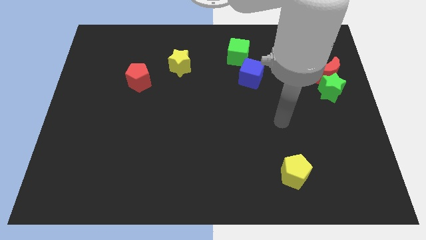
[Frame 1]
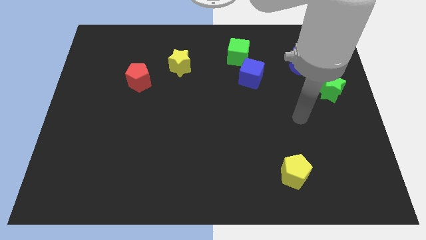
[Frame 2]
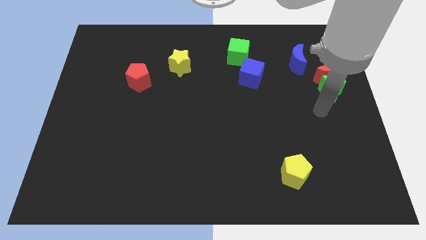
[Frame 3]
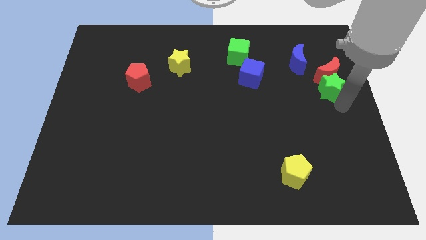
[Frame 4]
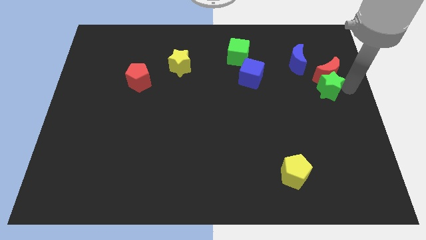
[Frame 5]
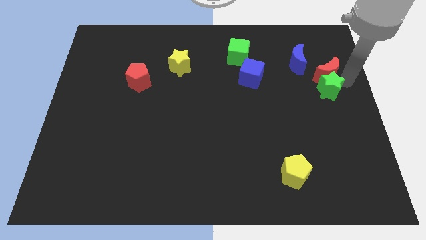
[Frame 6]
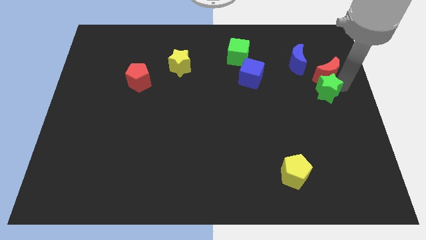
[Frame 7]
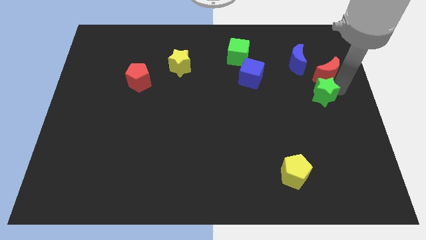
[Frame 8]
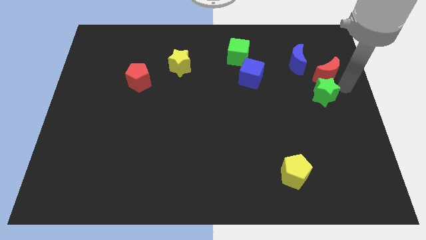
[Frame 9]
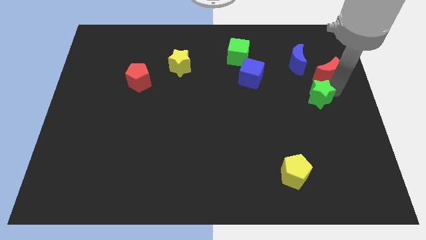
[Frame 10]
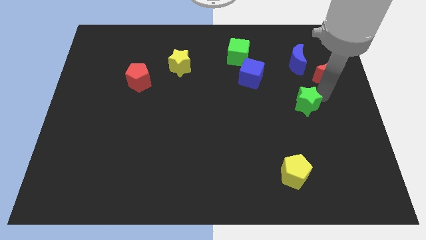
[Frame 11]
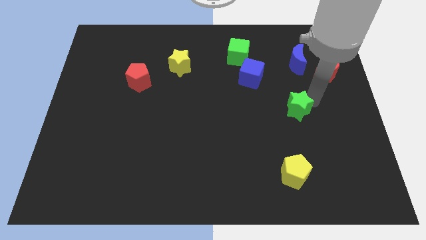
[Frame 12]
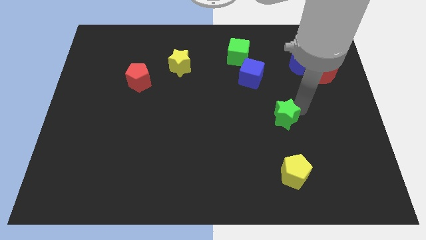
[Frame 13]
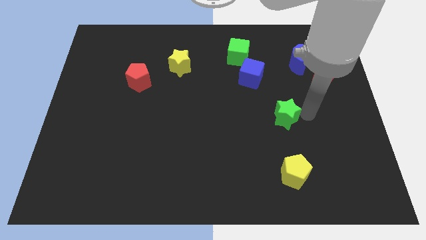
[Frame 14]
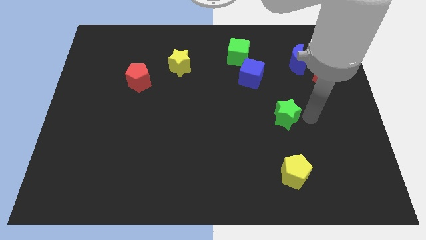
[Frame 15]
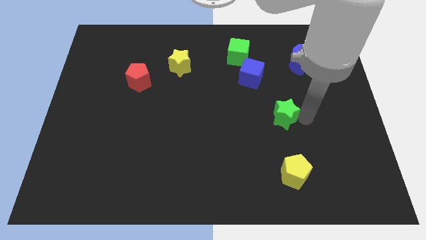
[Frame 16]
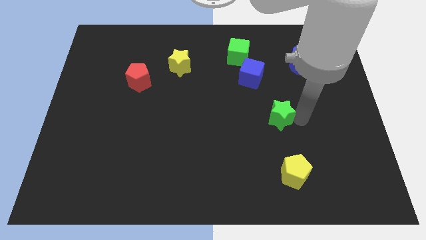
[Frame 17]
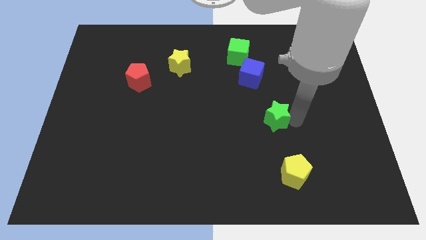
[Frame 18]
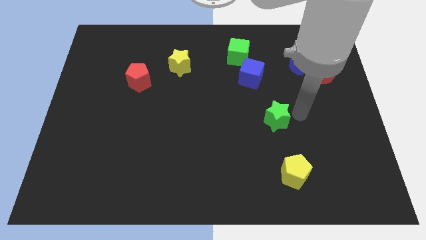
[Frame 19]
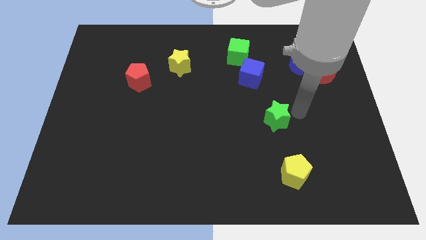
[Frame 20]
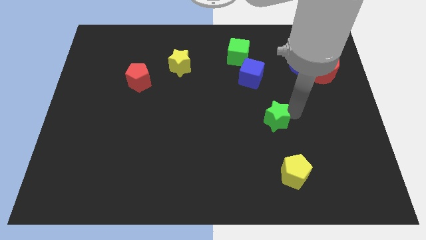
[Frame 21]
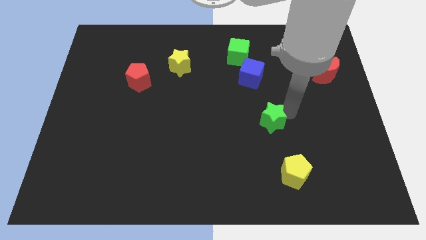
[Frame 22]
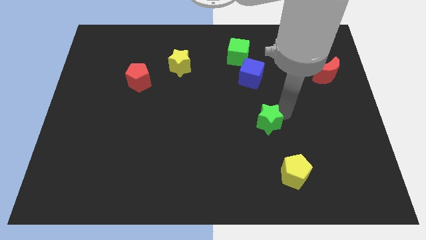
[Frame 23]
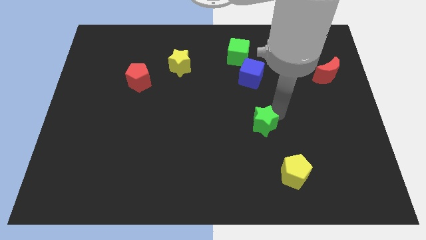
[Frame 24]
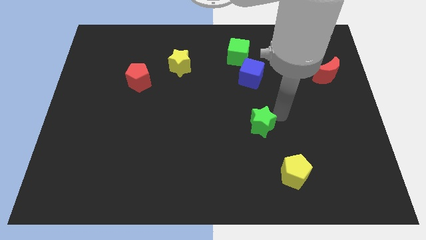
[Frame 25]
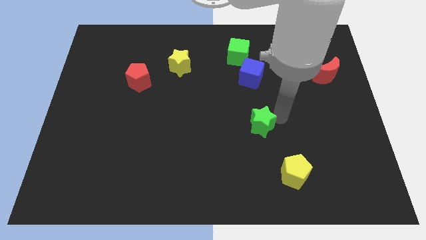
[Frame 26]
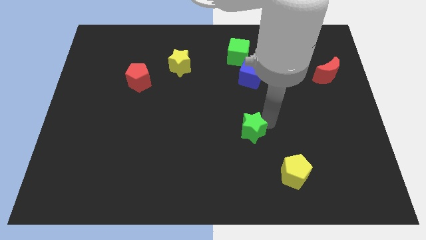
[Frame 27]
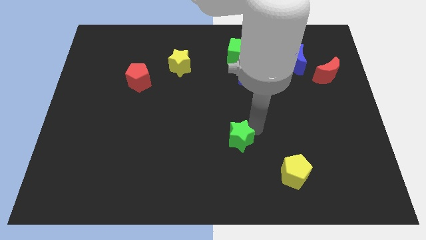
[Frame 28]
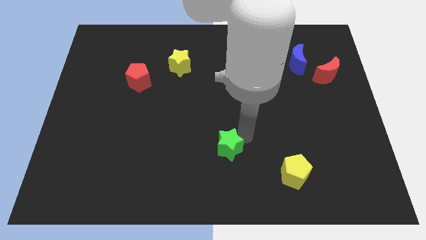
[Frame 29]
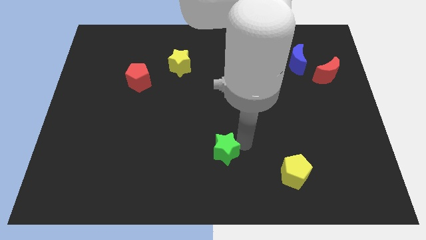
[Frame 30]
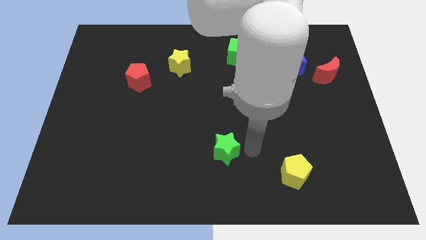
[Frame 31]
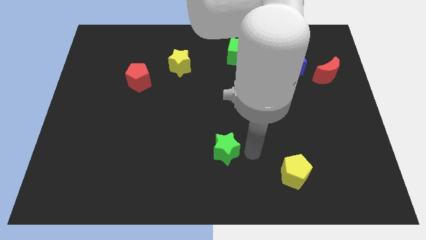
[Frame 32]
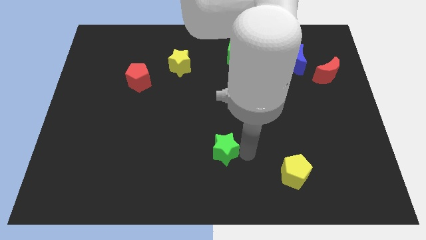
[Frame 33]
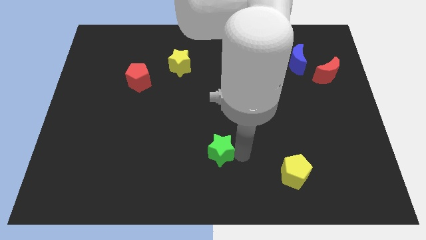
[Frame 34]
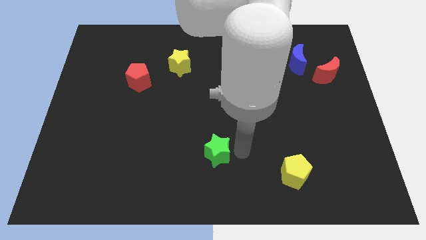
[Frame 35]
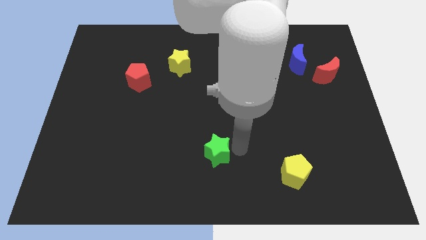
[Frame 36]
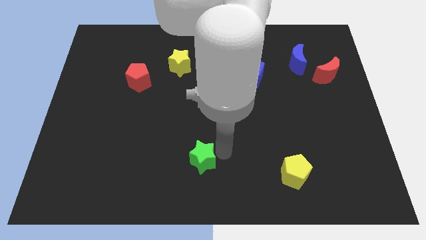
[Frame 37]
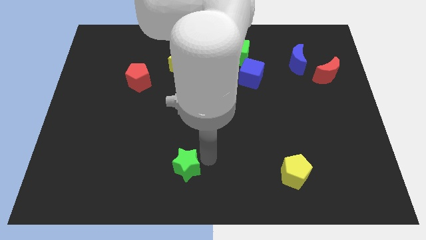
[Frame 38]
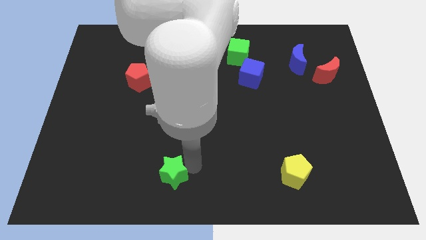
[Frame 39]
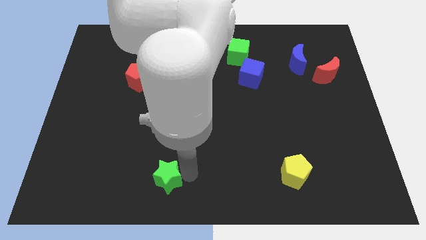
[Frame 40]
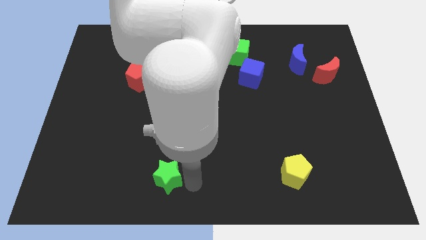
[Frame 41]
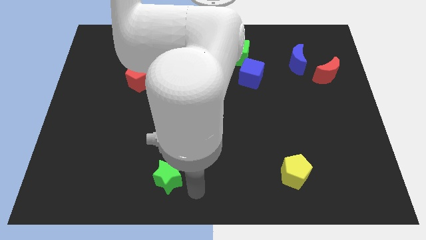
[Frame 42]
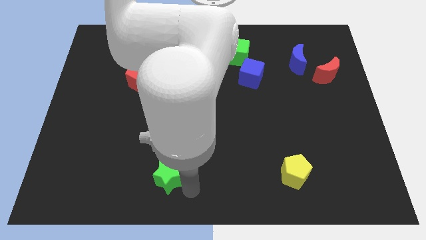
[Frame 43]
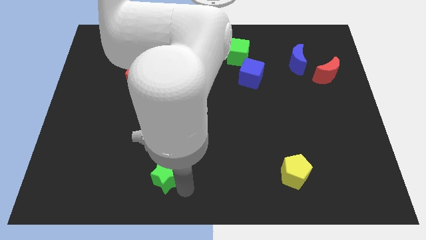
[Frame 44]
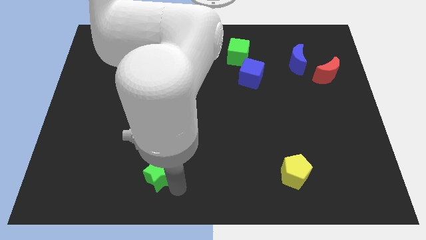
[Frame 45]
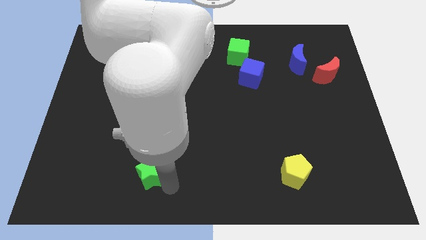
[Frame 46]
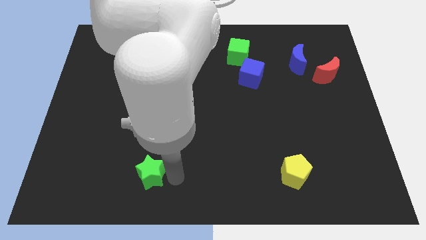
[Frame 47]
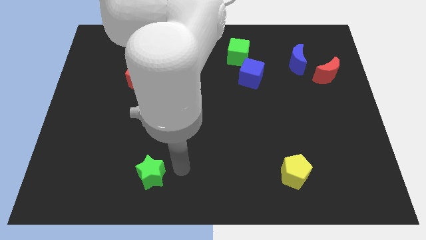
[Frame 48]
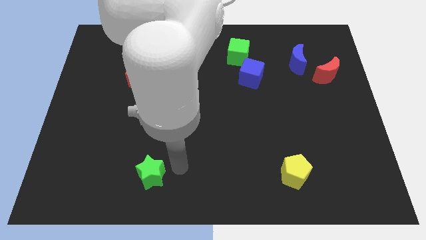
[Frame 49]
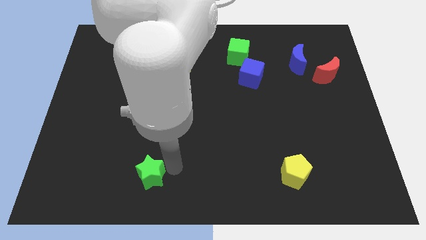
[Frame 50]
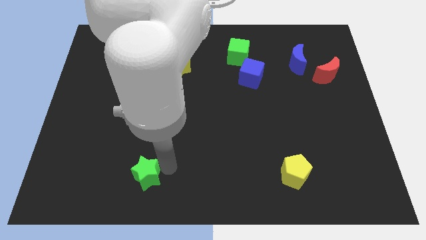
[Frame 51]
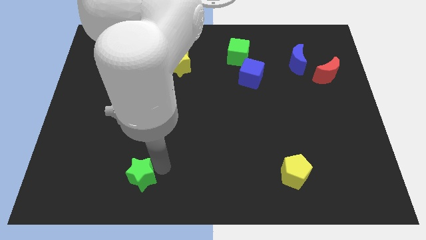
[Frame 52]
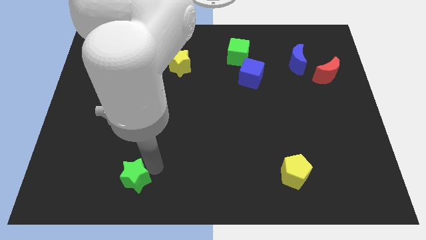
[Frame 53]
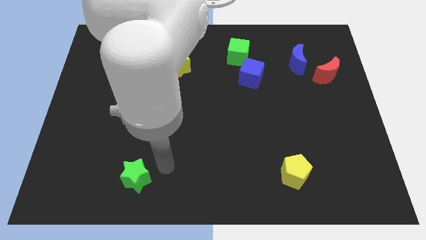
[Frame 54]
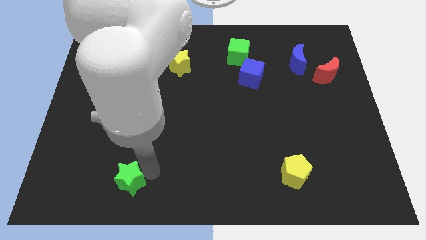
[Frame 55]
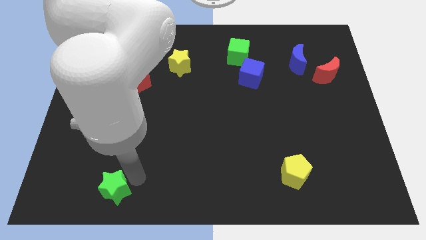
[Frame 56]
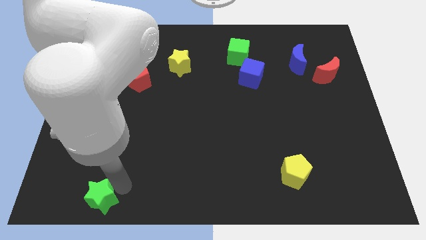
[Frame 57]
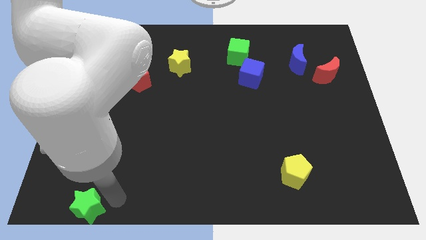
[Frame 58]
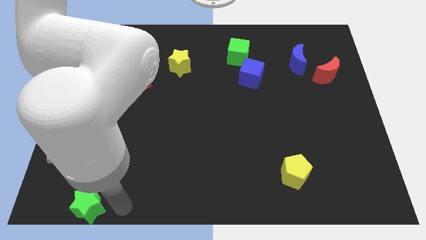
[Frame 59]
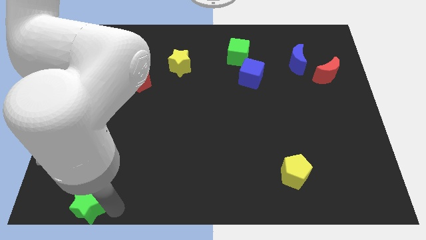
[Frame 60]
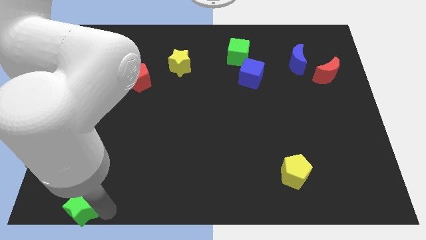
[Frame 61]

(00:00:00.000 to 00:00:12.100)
put the green star to the bottom left corner

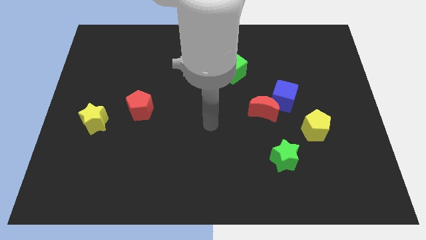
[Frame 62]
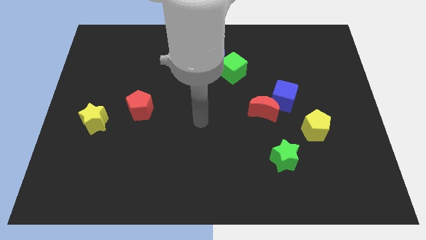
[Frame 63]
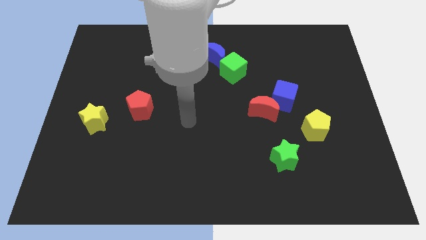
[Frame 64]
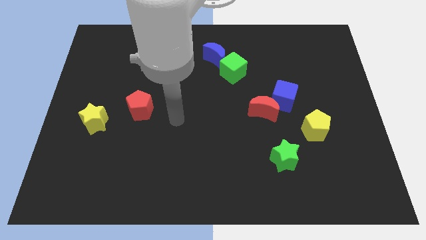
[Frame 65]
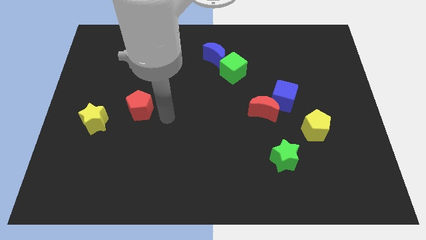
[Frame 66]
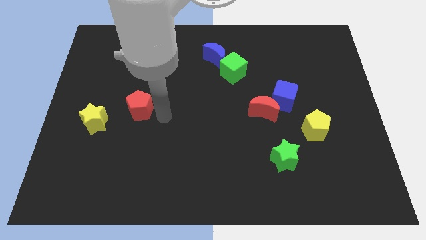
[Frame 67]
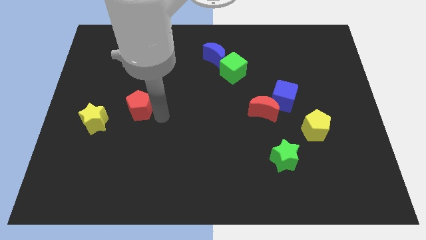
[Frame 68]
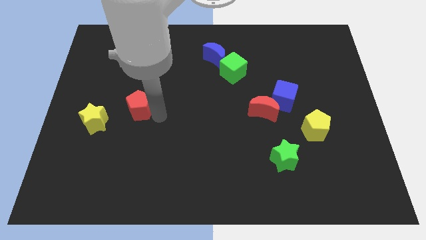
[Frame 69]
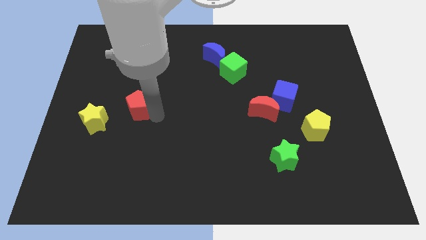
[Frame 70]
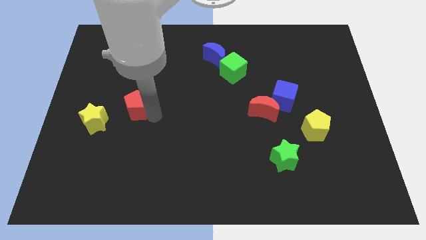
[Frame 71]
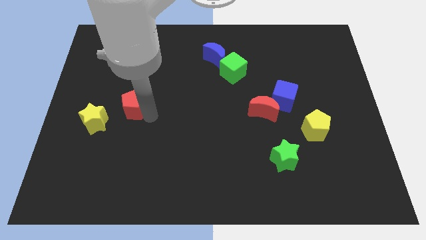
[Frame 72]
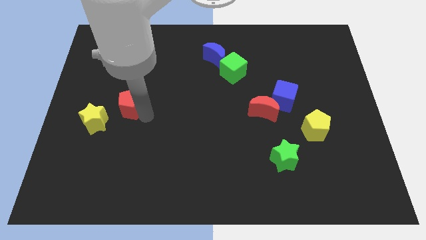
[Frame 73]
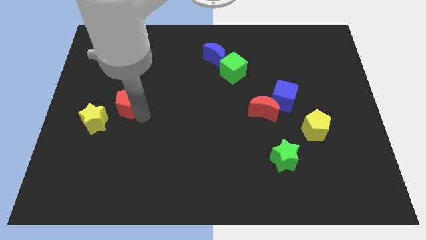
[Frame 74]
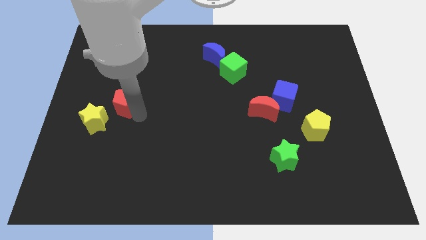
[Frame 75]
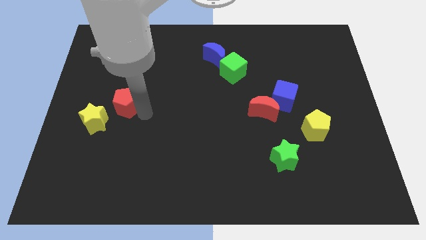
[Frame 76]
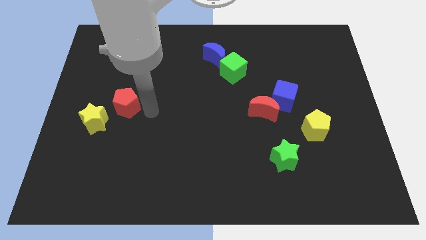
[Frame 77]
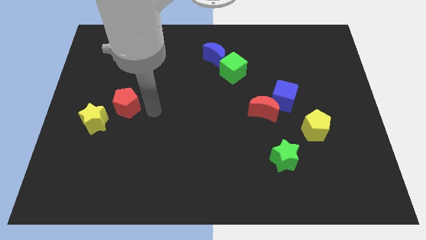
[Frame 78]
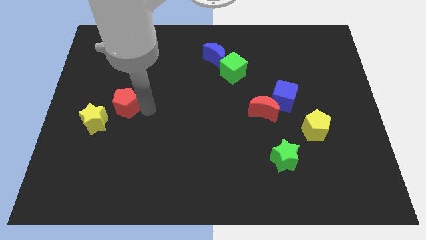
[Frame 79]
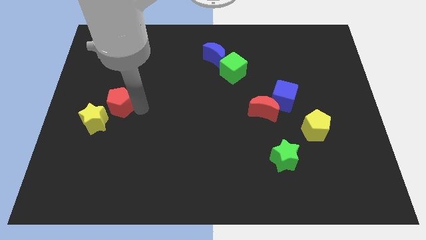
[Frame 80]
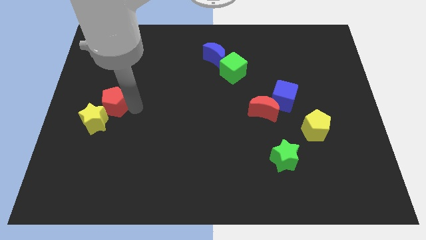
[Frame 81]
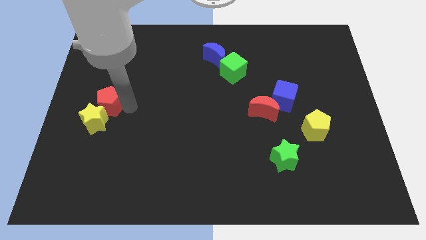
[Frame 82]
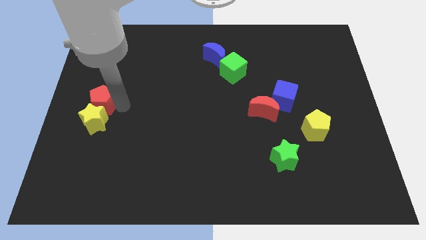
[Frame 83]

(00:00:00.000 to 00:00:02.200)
push the red pentagon to the center left
